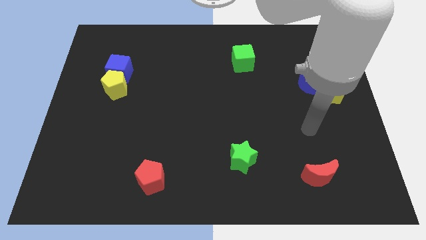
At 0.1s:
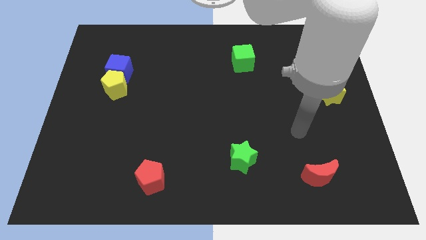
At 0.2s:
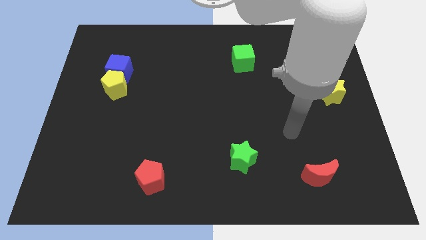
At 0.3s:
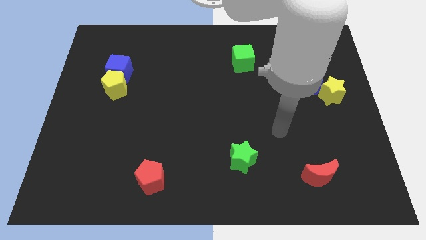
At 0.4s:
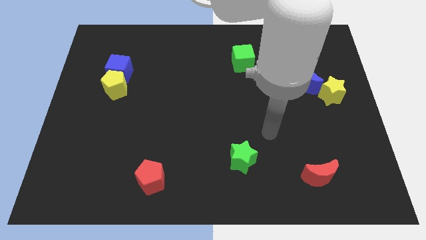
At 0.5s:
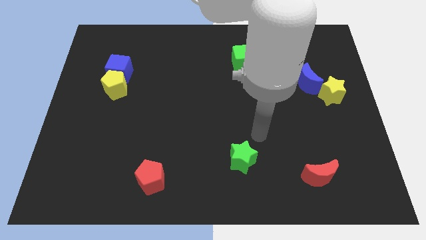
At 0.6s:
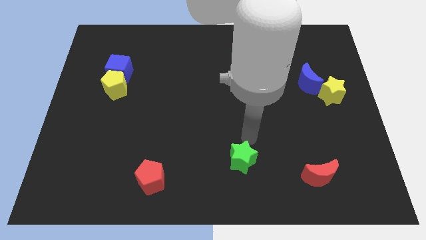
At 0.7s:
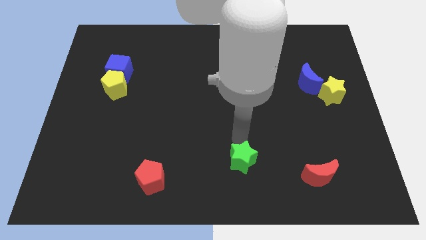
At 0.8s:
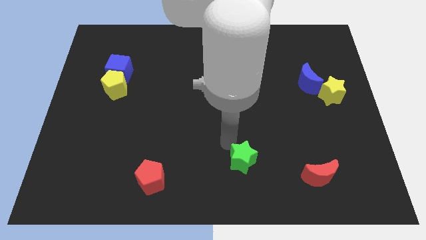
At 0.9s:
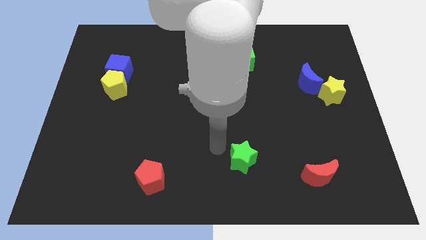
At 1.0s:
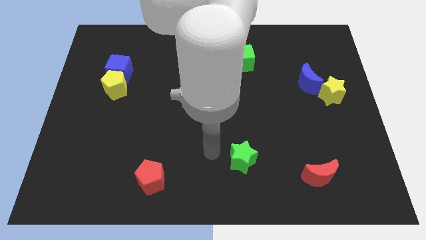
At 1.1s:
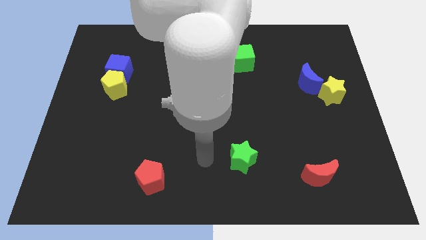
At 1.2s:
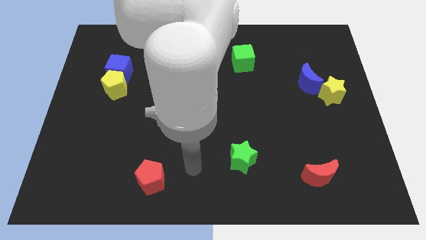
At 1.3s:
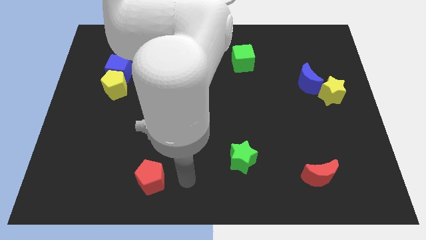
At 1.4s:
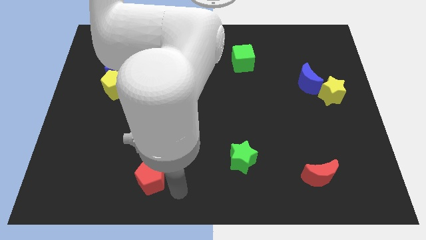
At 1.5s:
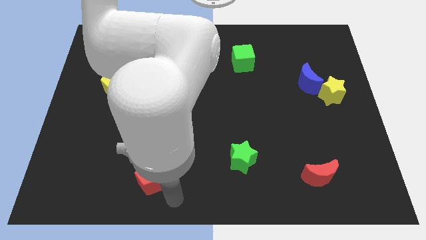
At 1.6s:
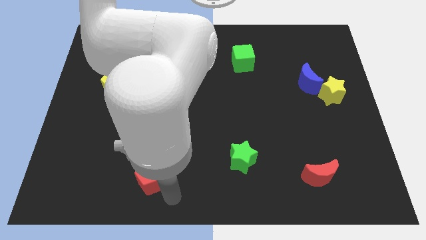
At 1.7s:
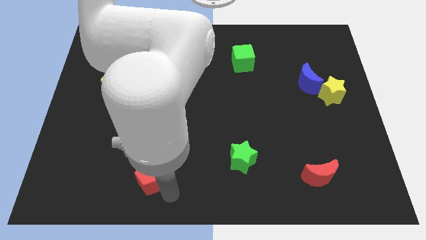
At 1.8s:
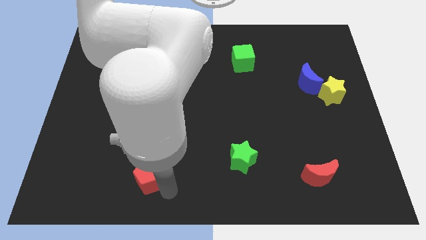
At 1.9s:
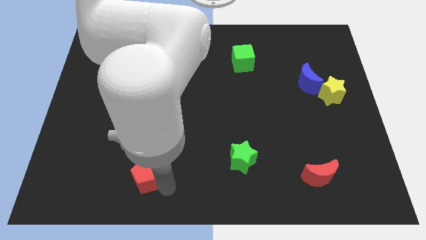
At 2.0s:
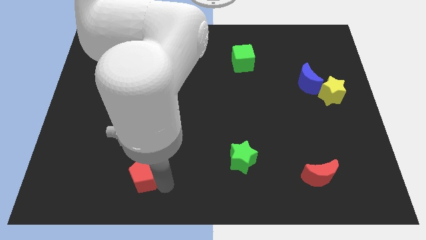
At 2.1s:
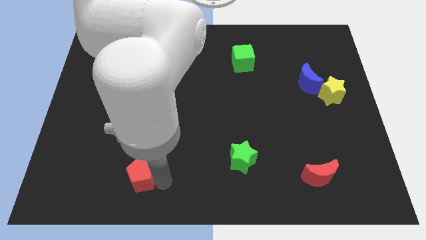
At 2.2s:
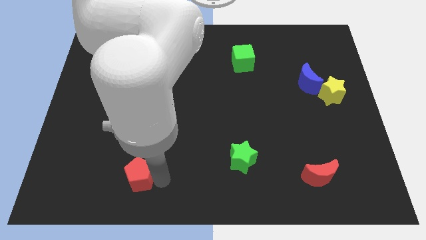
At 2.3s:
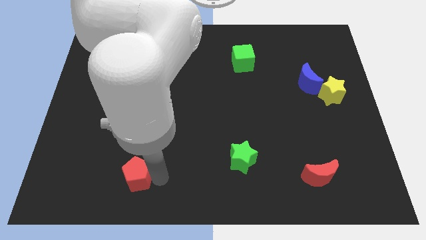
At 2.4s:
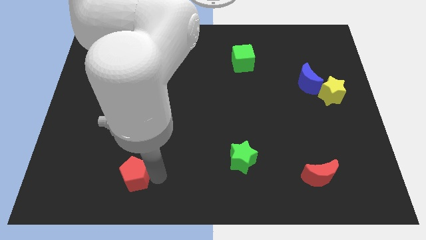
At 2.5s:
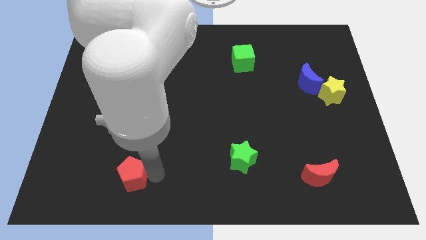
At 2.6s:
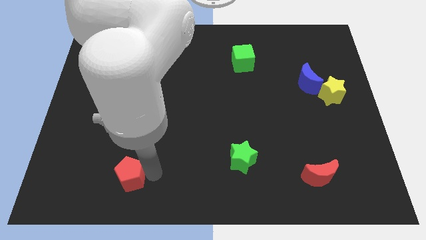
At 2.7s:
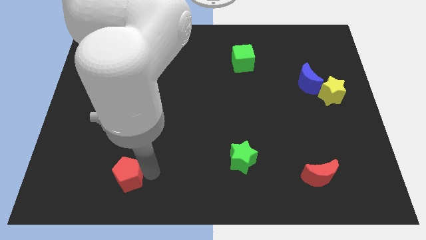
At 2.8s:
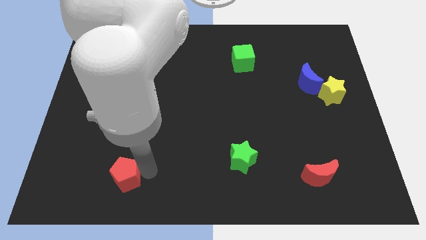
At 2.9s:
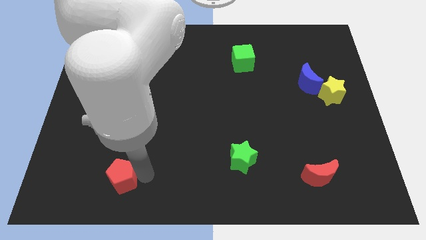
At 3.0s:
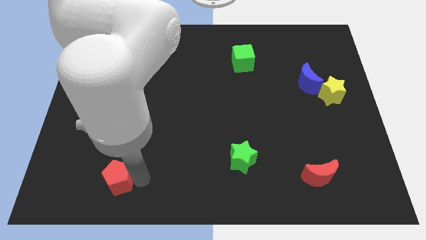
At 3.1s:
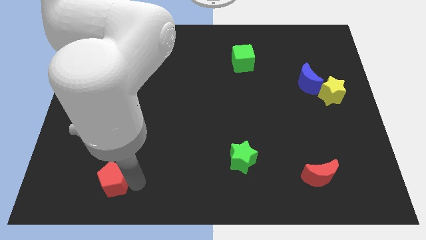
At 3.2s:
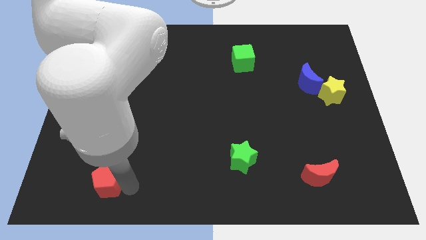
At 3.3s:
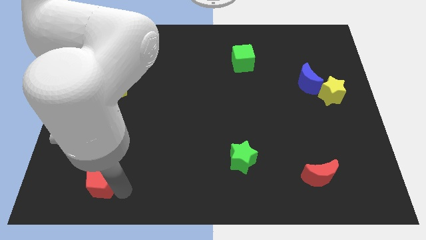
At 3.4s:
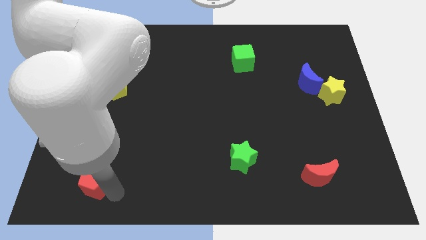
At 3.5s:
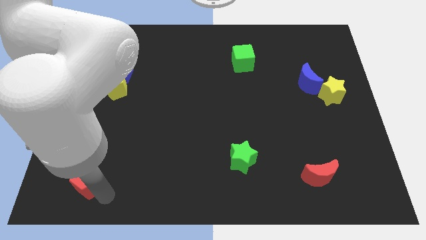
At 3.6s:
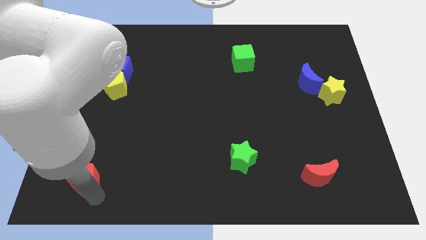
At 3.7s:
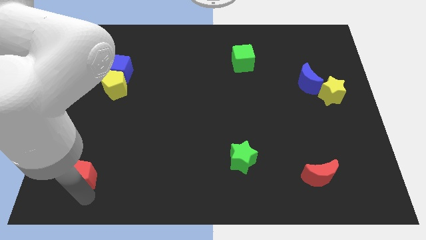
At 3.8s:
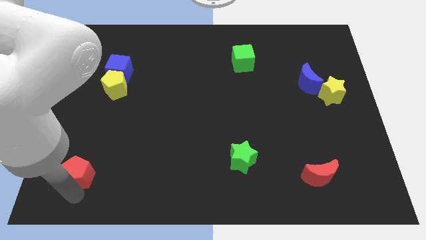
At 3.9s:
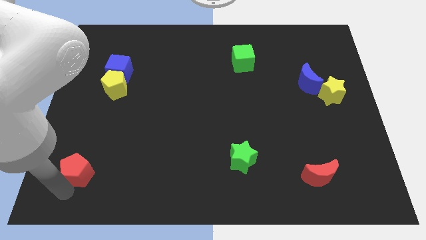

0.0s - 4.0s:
slide the red pentagon up and left a little bit

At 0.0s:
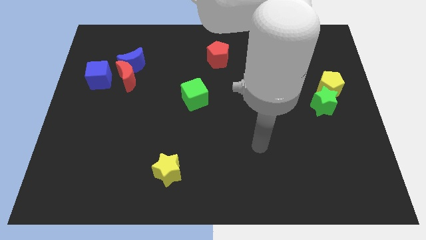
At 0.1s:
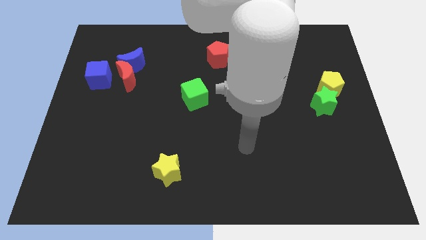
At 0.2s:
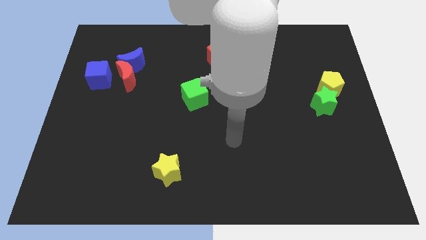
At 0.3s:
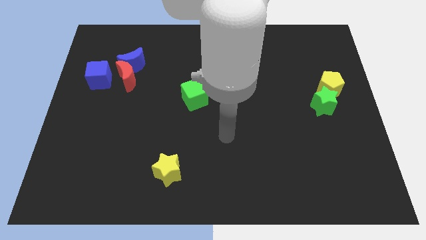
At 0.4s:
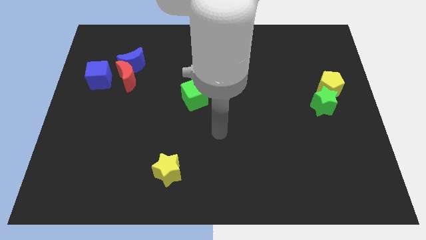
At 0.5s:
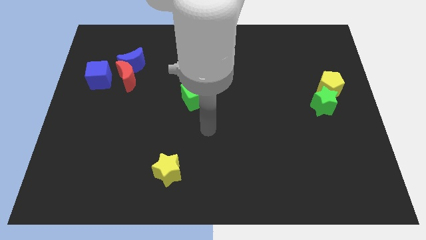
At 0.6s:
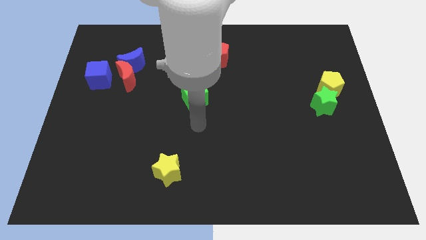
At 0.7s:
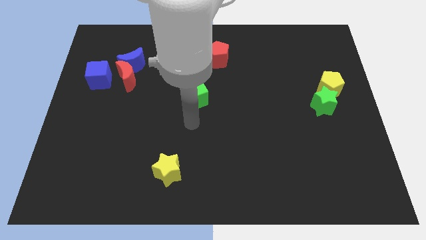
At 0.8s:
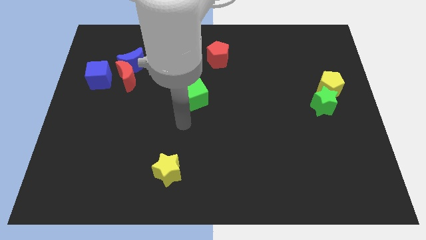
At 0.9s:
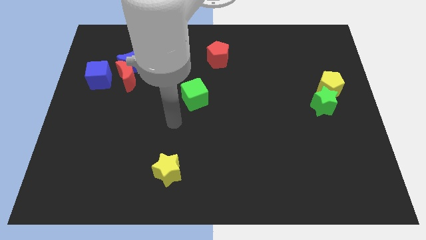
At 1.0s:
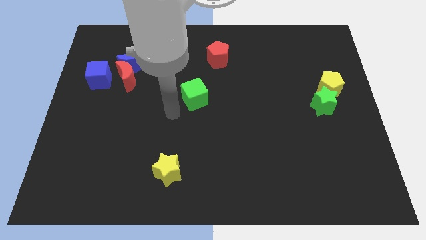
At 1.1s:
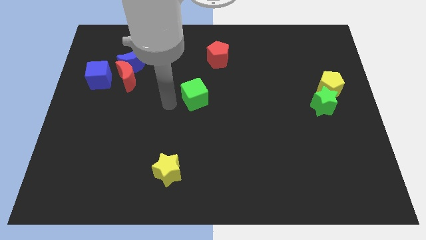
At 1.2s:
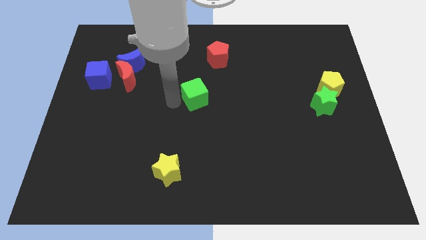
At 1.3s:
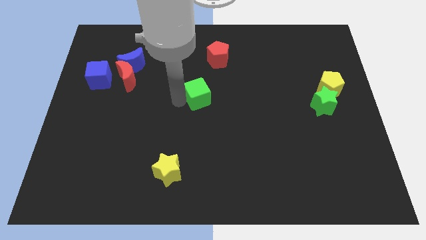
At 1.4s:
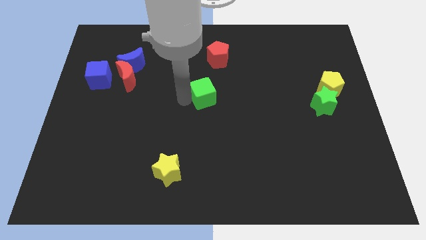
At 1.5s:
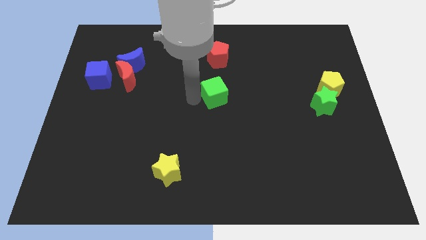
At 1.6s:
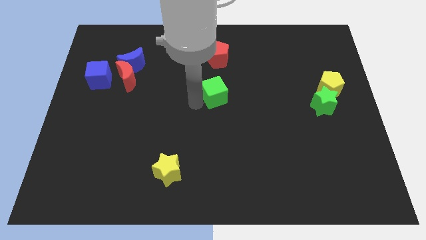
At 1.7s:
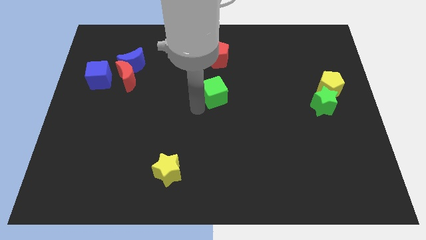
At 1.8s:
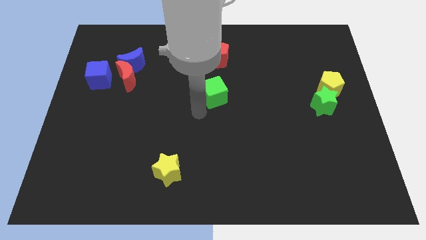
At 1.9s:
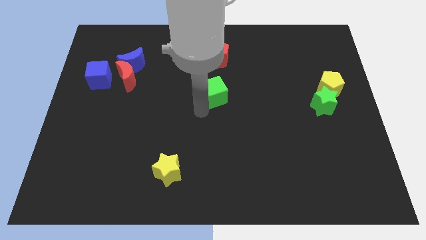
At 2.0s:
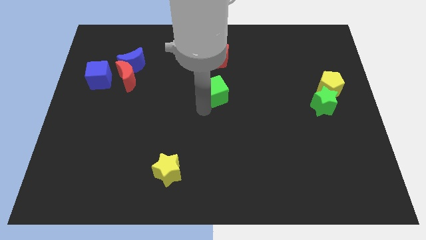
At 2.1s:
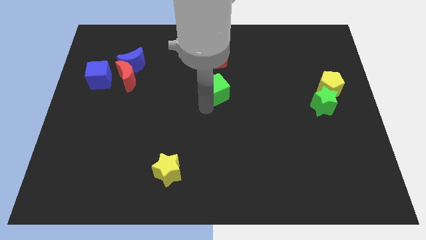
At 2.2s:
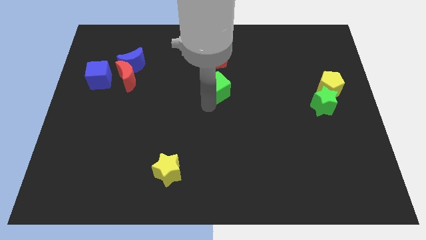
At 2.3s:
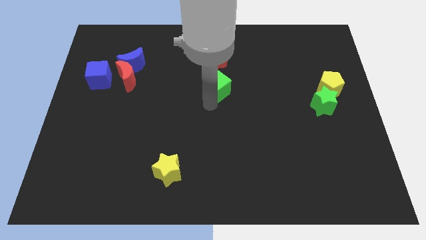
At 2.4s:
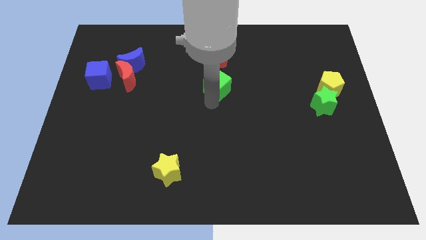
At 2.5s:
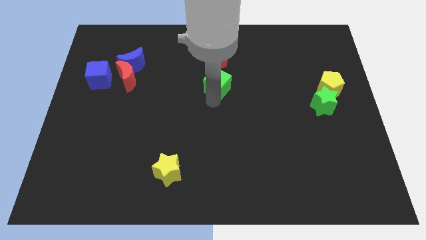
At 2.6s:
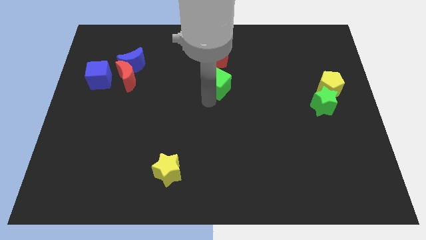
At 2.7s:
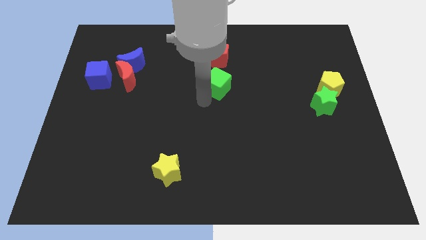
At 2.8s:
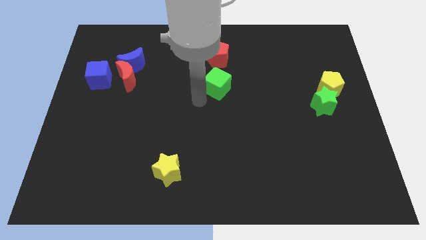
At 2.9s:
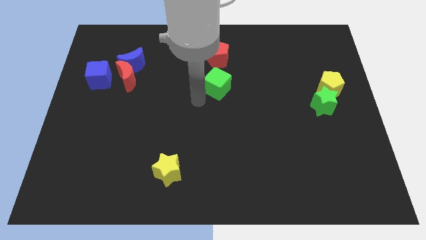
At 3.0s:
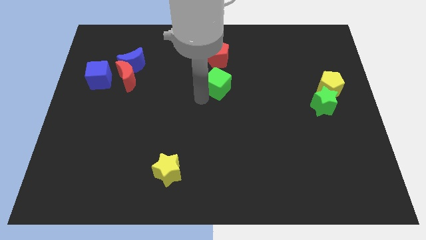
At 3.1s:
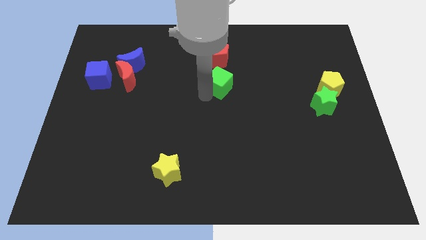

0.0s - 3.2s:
slightly slide the green cube diagonally up and right

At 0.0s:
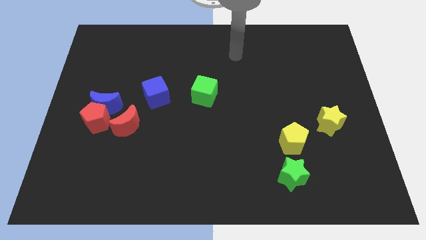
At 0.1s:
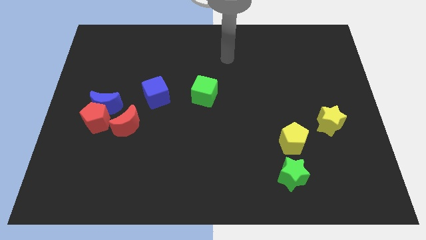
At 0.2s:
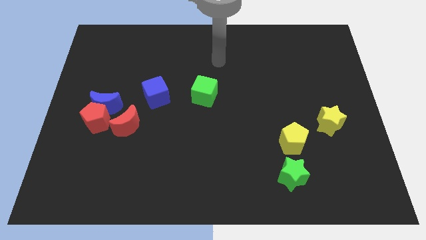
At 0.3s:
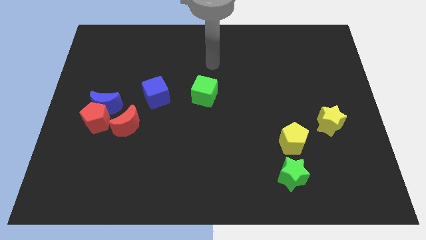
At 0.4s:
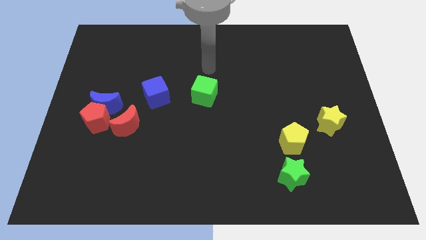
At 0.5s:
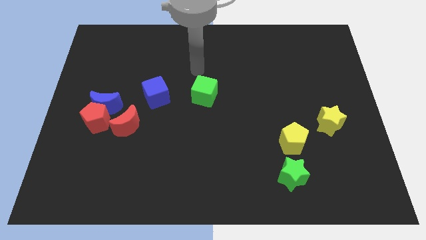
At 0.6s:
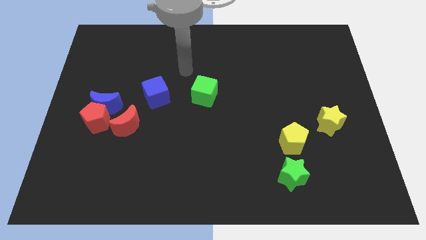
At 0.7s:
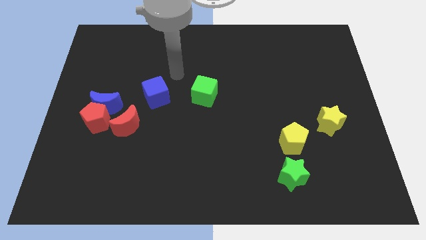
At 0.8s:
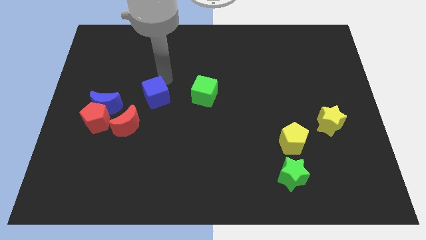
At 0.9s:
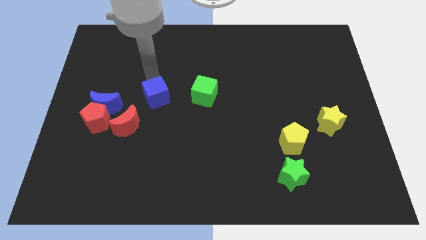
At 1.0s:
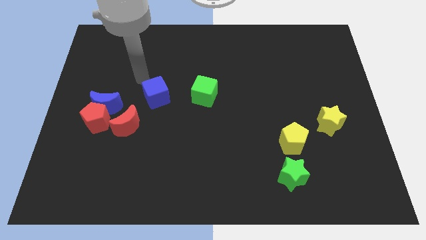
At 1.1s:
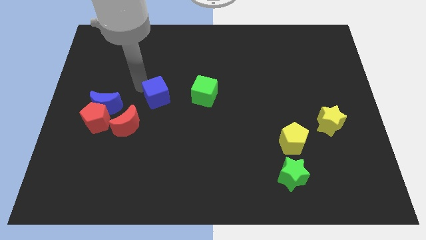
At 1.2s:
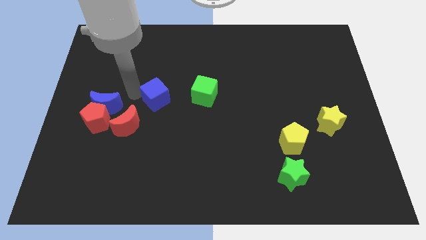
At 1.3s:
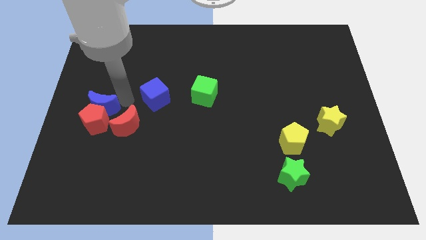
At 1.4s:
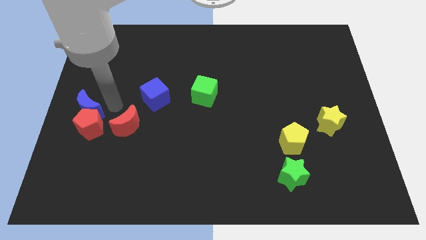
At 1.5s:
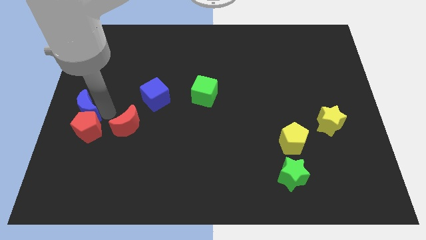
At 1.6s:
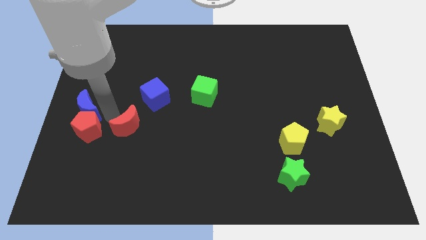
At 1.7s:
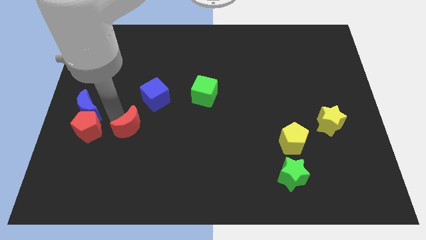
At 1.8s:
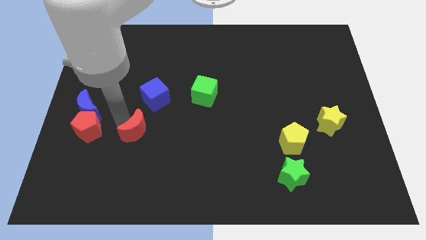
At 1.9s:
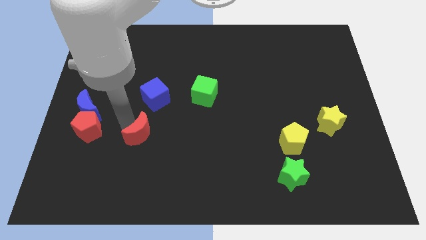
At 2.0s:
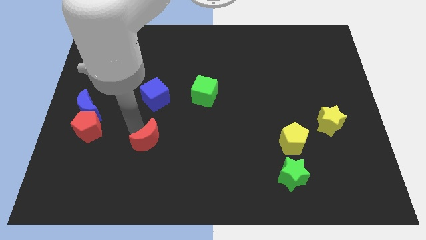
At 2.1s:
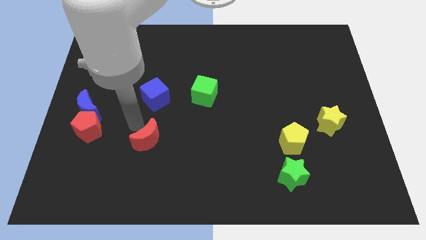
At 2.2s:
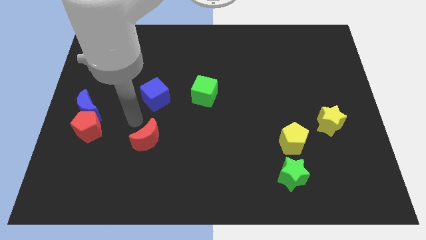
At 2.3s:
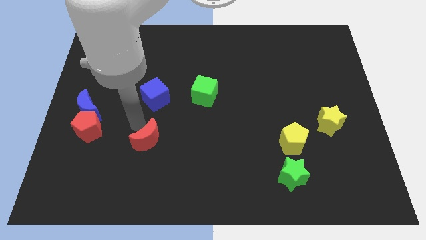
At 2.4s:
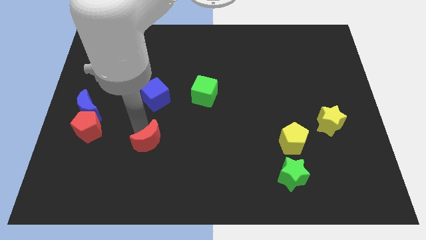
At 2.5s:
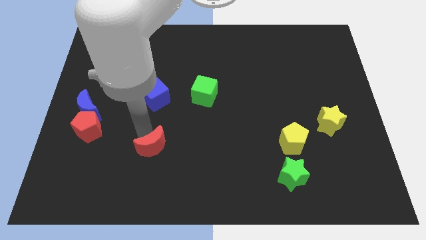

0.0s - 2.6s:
slightly slide the red moon downwards and to the right diagonally
